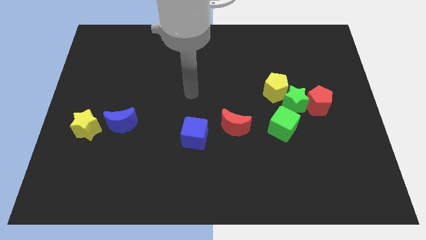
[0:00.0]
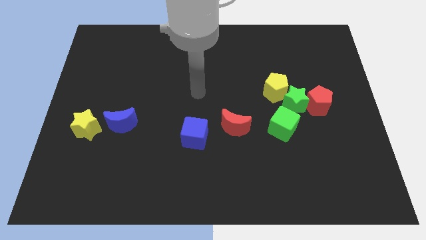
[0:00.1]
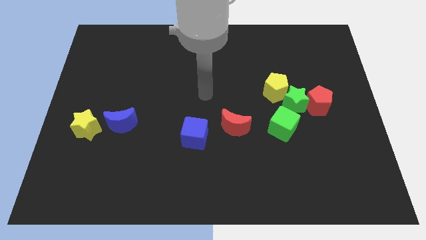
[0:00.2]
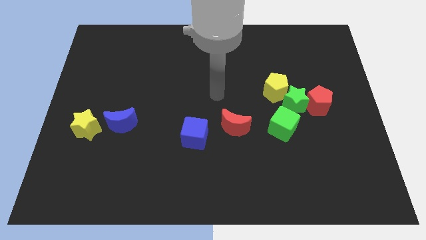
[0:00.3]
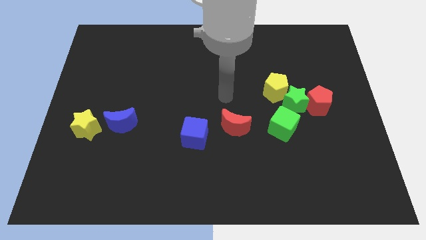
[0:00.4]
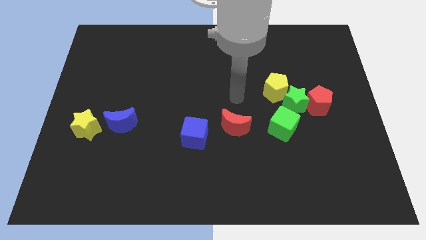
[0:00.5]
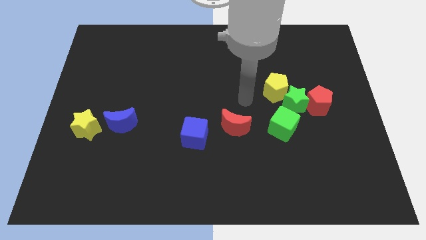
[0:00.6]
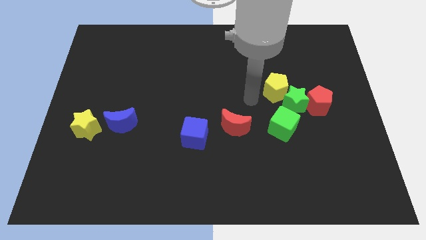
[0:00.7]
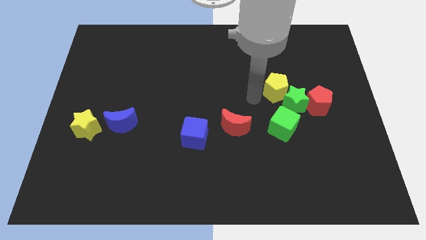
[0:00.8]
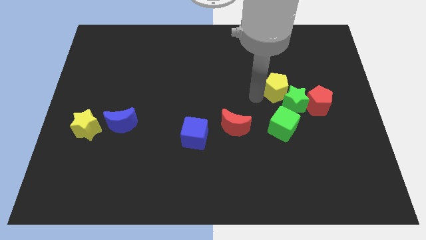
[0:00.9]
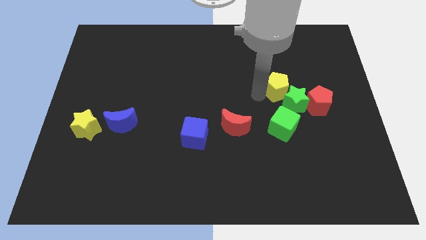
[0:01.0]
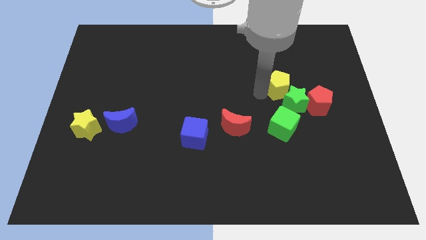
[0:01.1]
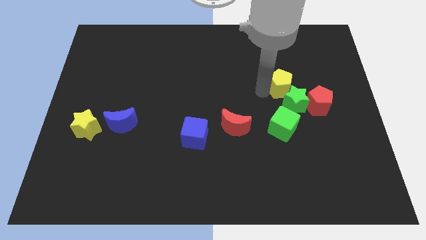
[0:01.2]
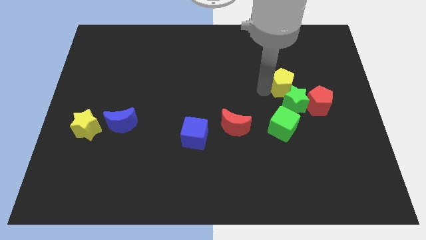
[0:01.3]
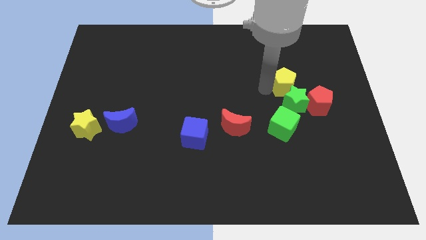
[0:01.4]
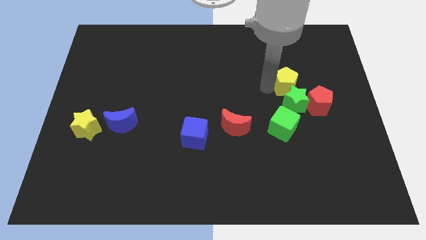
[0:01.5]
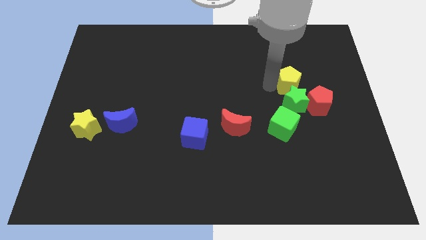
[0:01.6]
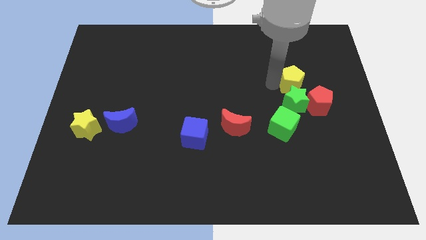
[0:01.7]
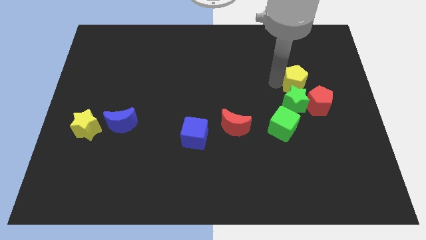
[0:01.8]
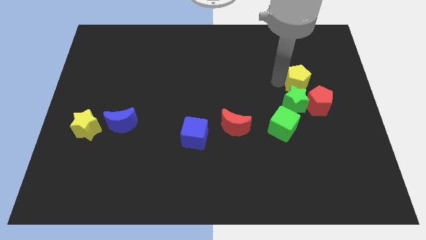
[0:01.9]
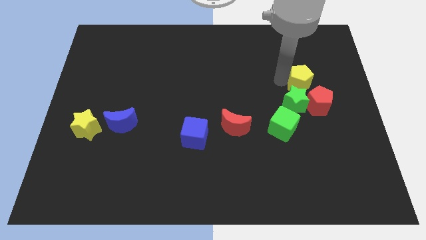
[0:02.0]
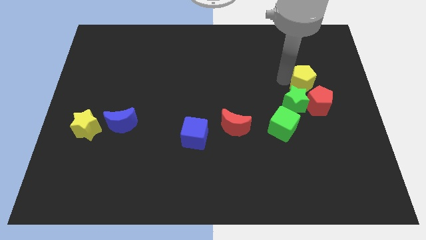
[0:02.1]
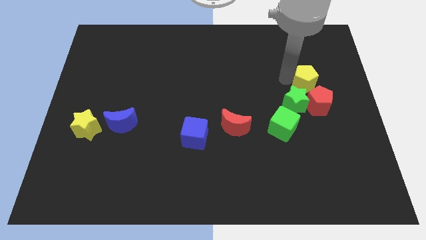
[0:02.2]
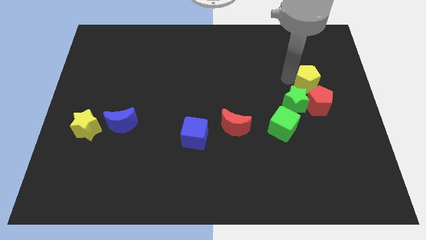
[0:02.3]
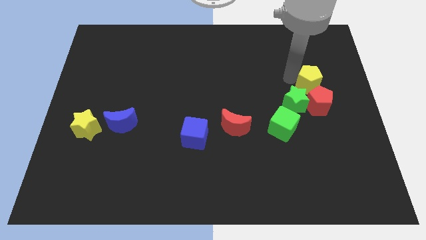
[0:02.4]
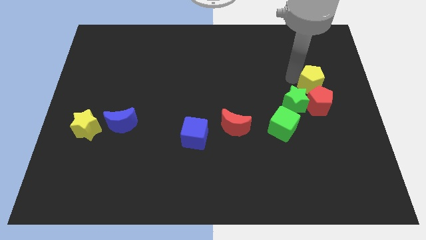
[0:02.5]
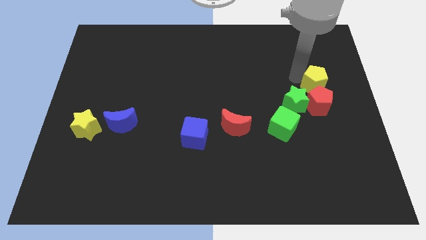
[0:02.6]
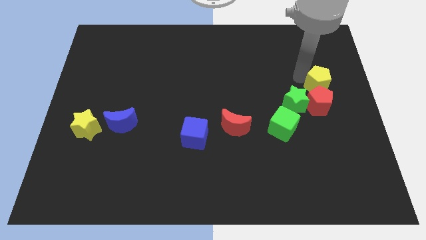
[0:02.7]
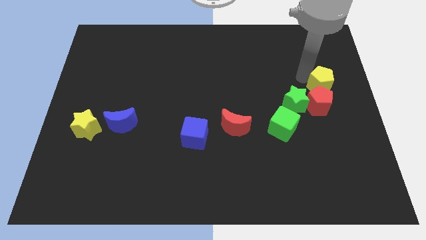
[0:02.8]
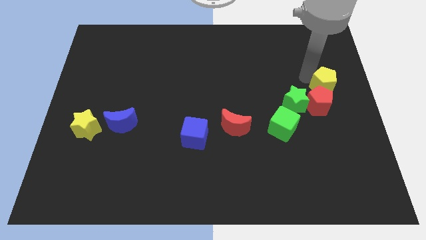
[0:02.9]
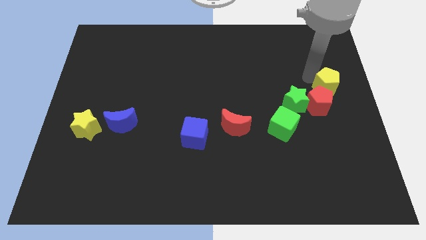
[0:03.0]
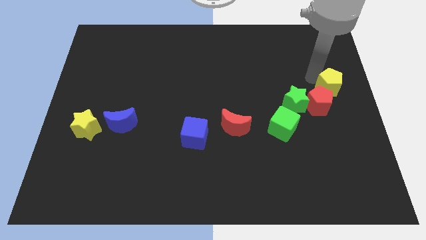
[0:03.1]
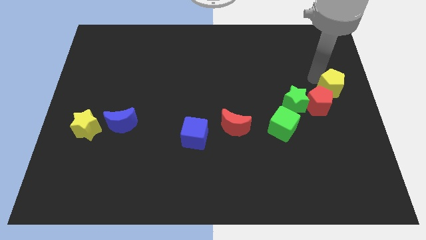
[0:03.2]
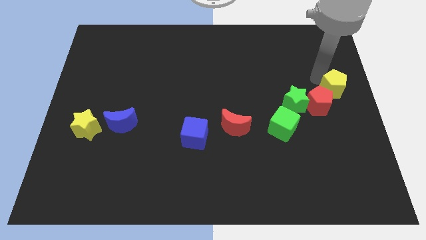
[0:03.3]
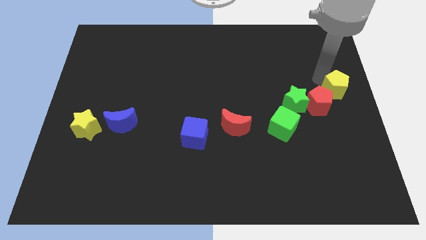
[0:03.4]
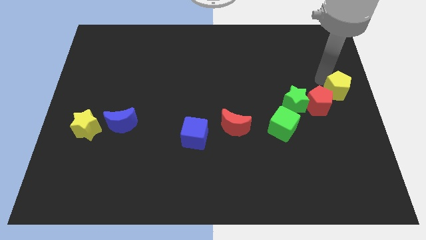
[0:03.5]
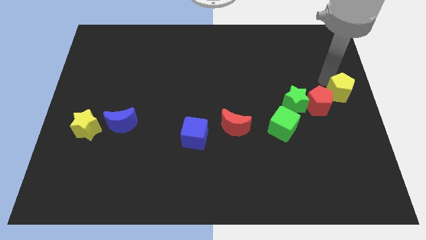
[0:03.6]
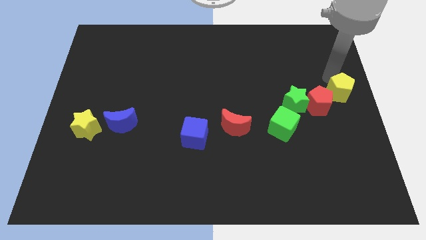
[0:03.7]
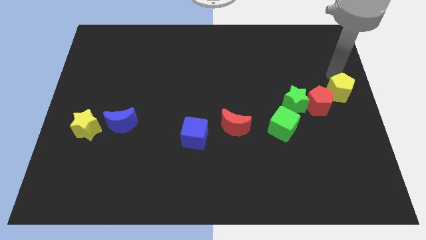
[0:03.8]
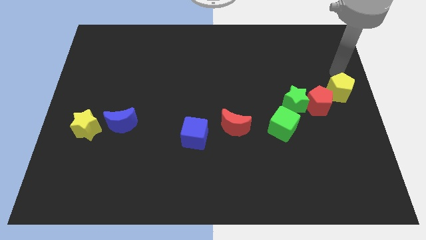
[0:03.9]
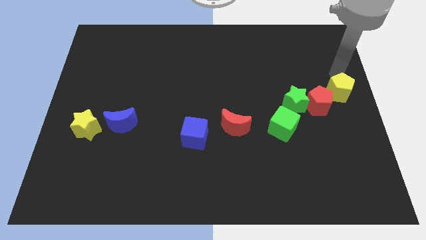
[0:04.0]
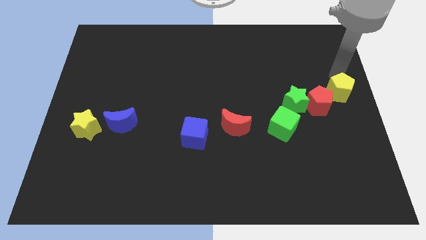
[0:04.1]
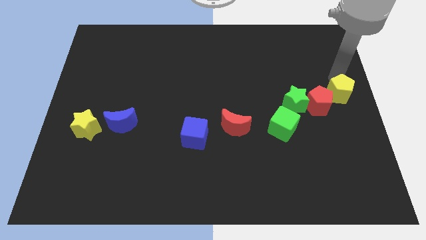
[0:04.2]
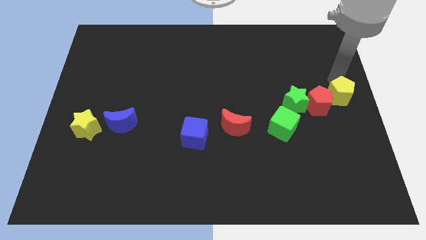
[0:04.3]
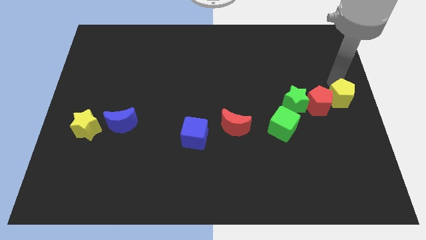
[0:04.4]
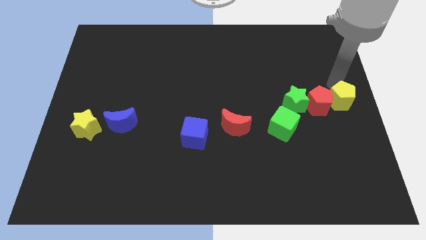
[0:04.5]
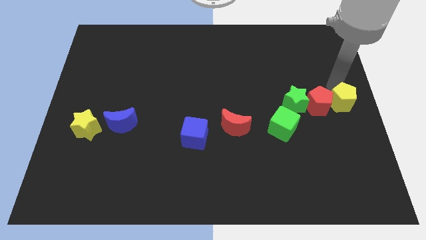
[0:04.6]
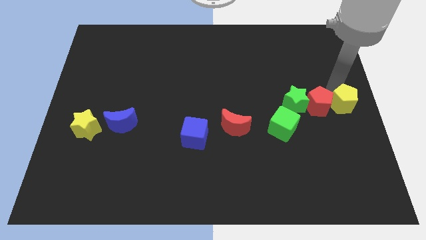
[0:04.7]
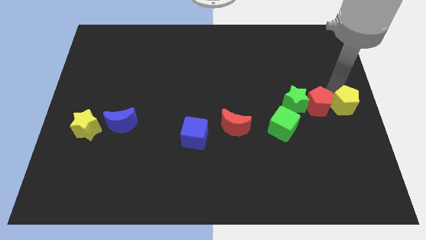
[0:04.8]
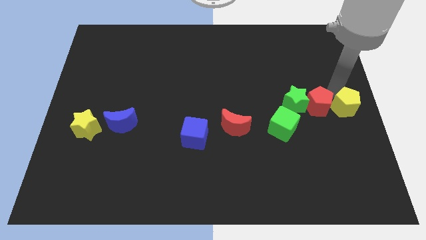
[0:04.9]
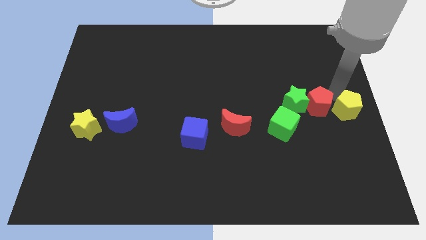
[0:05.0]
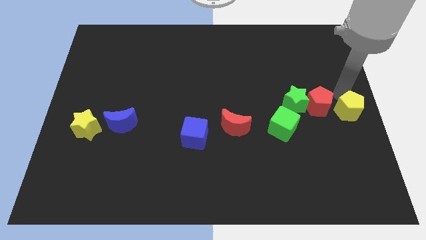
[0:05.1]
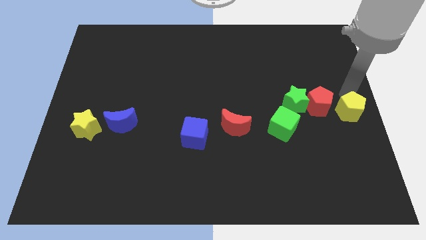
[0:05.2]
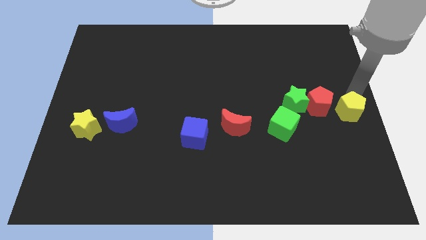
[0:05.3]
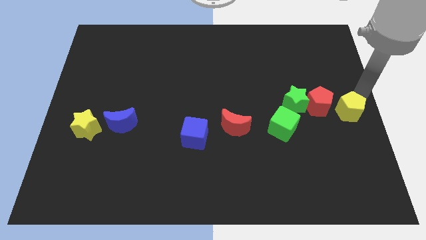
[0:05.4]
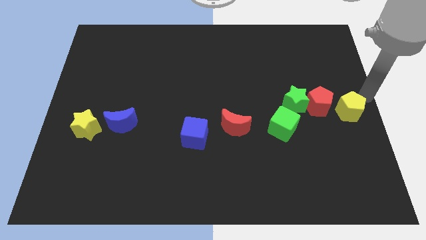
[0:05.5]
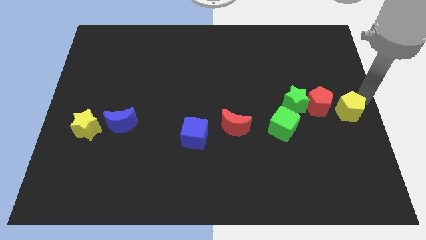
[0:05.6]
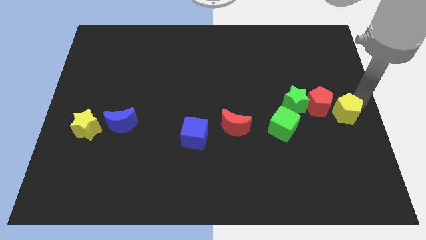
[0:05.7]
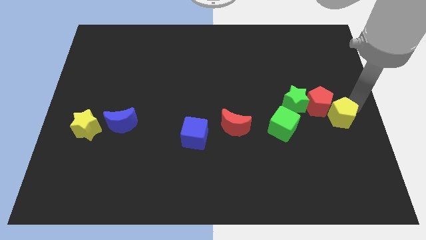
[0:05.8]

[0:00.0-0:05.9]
slide the yellow pentagon just right of the green cube
